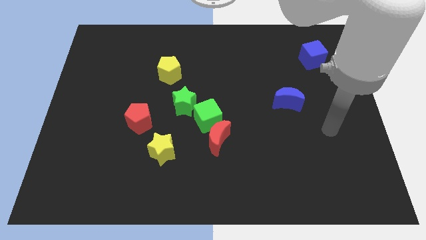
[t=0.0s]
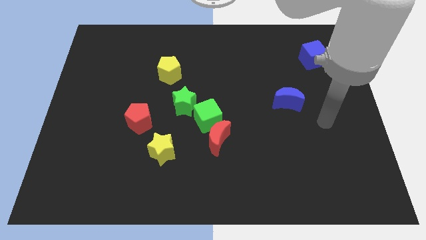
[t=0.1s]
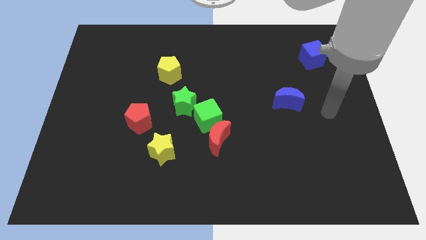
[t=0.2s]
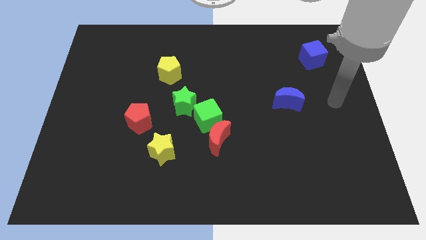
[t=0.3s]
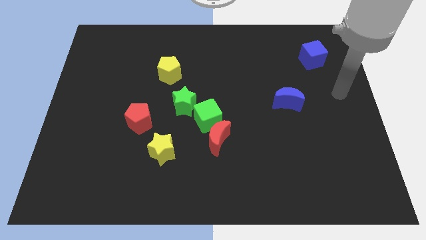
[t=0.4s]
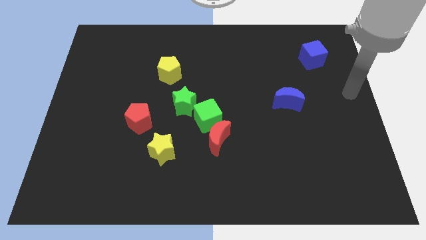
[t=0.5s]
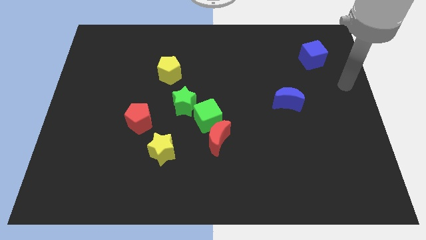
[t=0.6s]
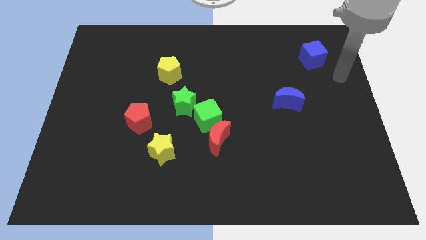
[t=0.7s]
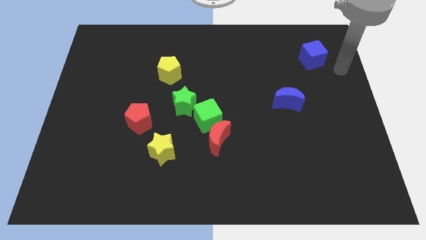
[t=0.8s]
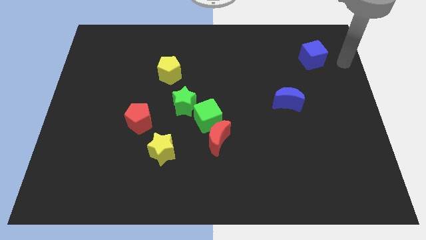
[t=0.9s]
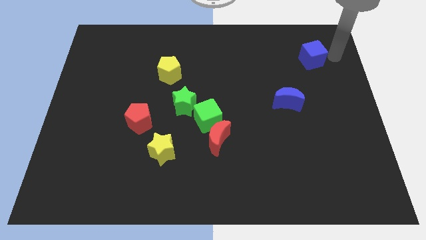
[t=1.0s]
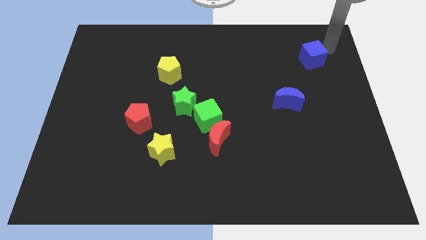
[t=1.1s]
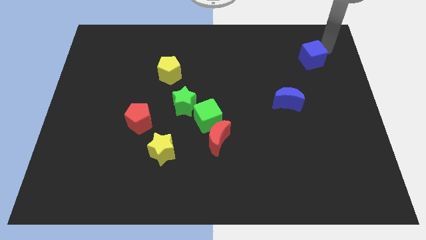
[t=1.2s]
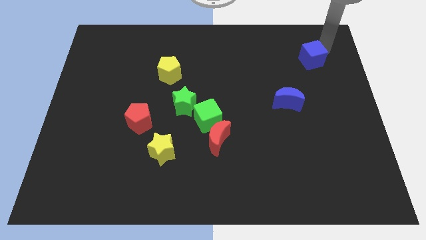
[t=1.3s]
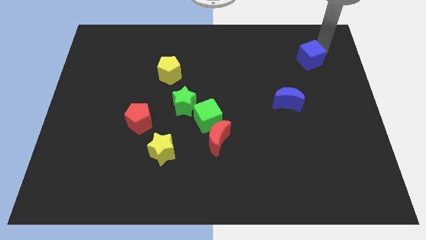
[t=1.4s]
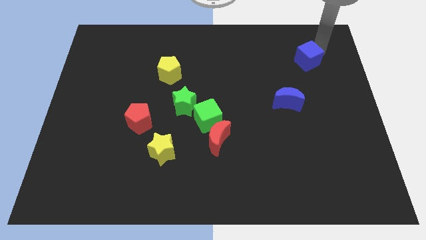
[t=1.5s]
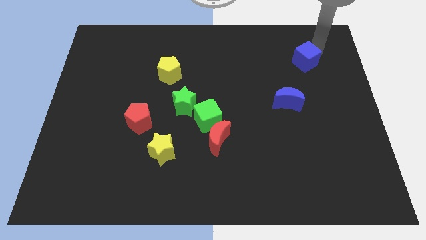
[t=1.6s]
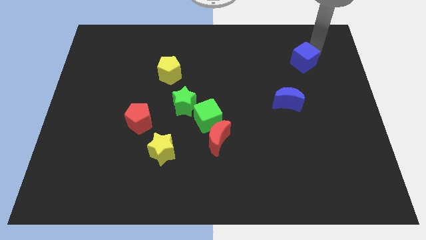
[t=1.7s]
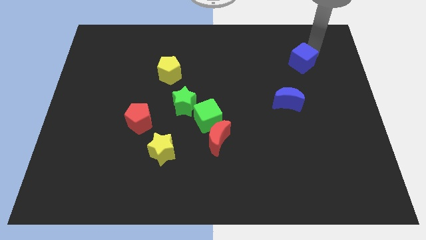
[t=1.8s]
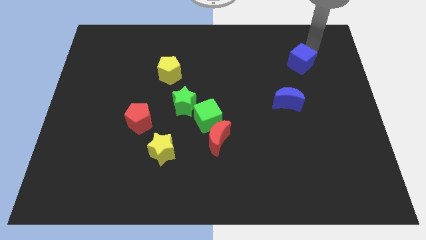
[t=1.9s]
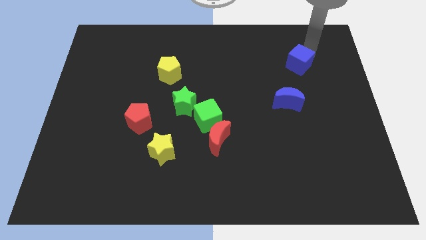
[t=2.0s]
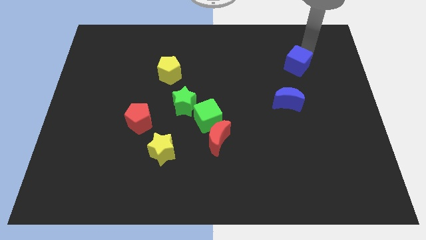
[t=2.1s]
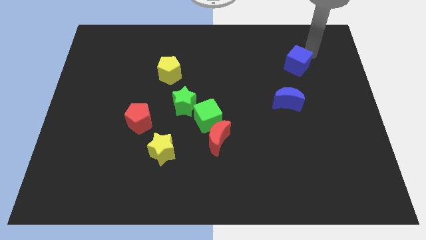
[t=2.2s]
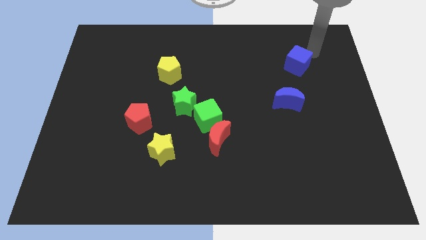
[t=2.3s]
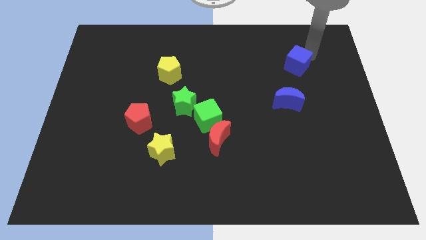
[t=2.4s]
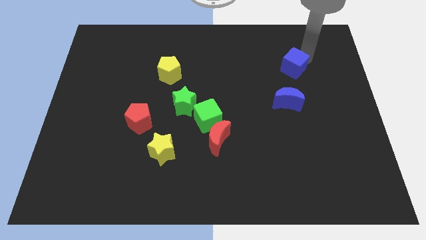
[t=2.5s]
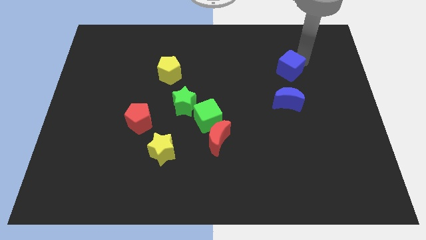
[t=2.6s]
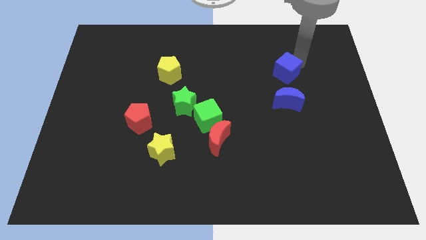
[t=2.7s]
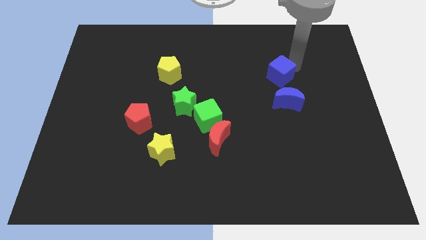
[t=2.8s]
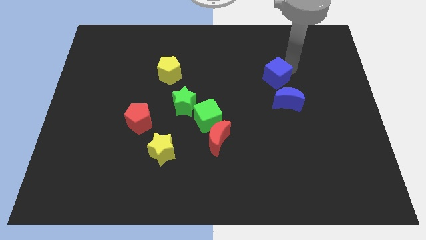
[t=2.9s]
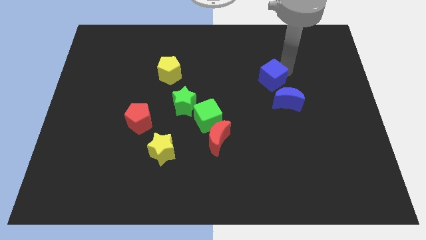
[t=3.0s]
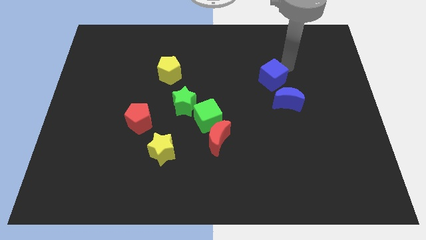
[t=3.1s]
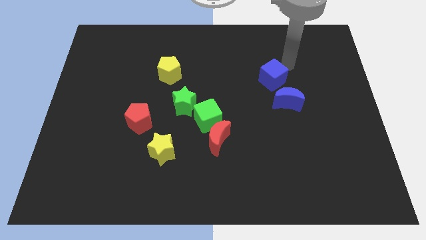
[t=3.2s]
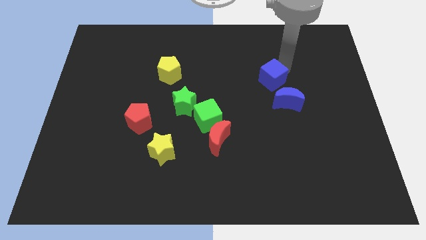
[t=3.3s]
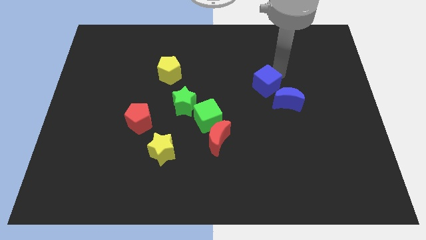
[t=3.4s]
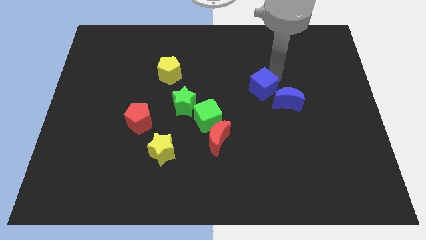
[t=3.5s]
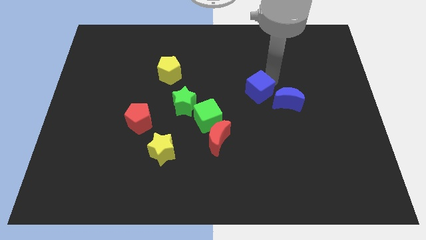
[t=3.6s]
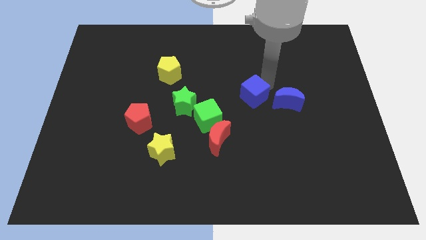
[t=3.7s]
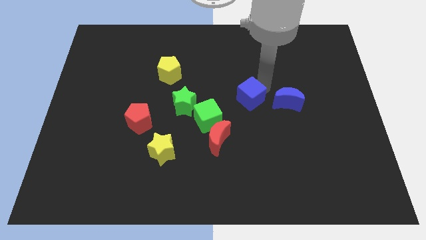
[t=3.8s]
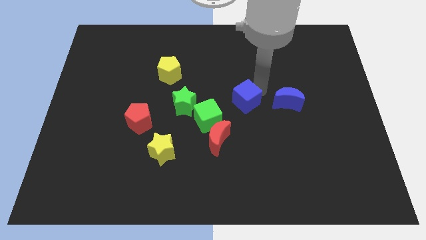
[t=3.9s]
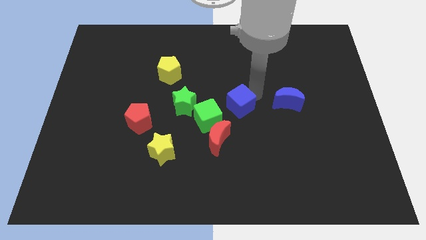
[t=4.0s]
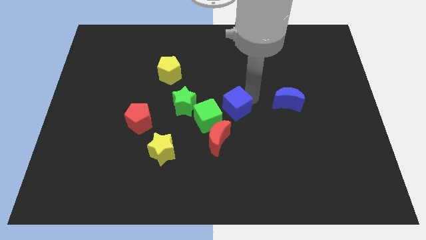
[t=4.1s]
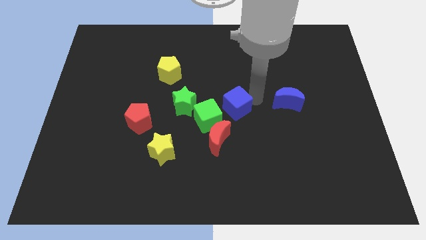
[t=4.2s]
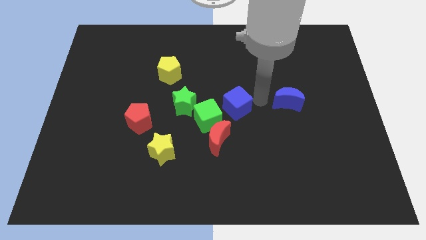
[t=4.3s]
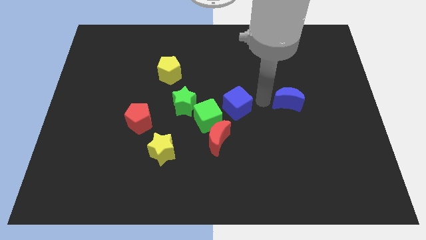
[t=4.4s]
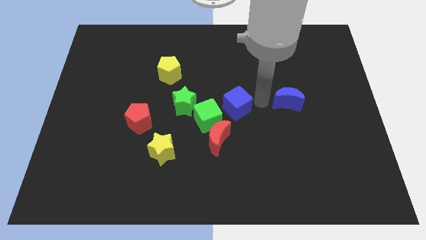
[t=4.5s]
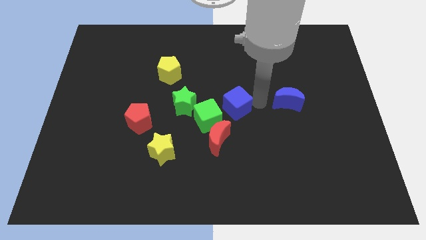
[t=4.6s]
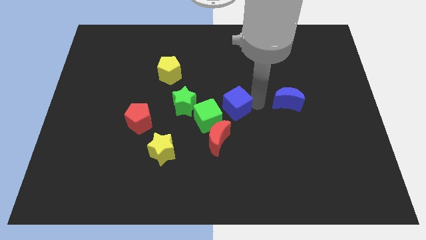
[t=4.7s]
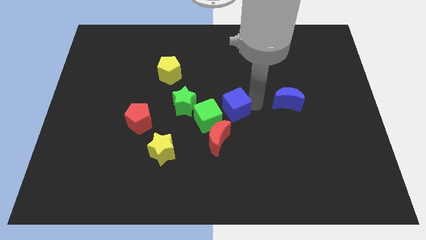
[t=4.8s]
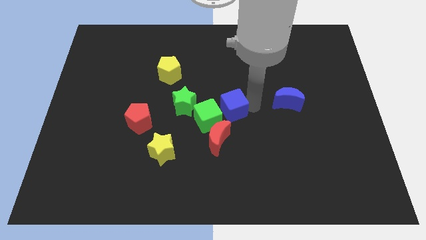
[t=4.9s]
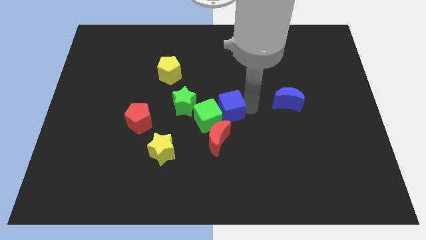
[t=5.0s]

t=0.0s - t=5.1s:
move the blue cube next to the green cube

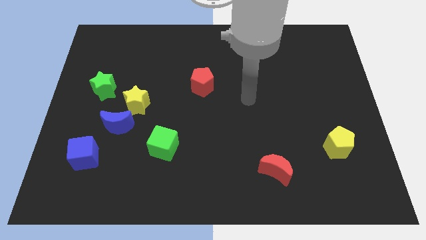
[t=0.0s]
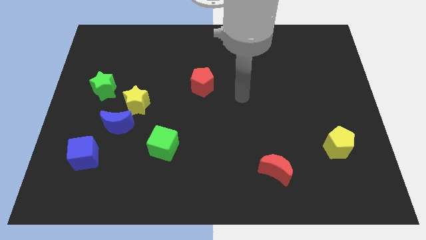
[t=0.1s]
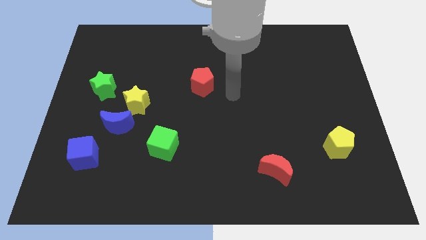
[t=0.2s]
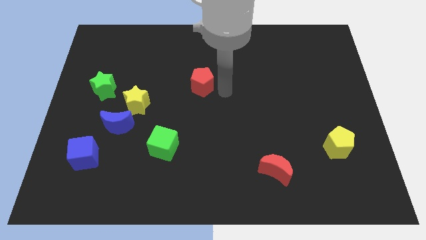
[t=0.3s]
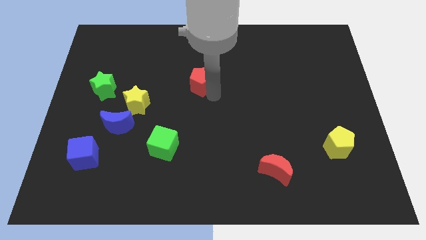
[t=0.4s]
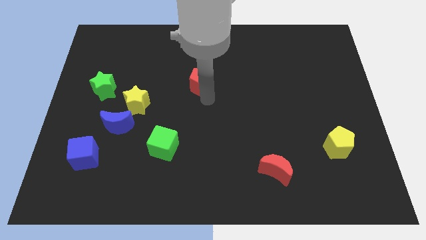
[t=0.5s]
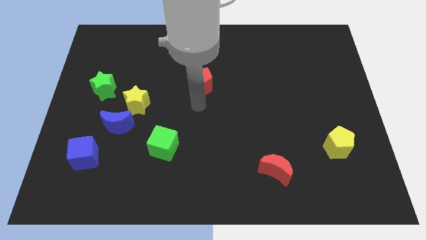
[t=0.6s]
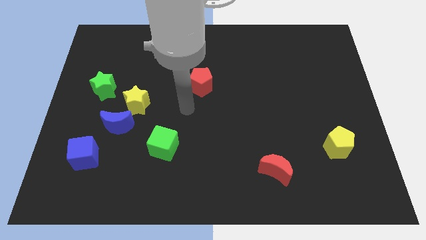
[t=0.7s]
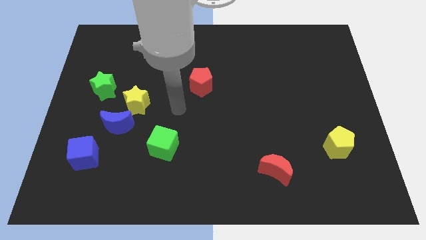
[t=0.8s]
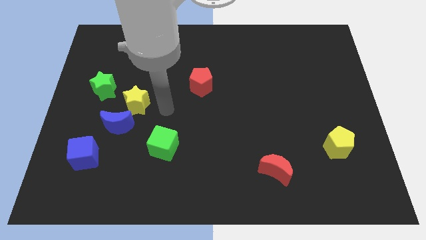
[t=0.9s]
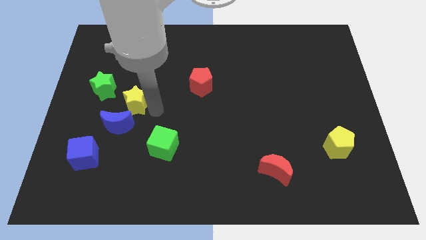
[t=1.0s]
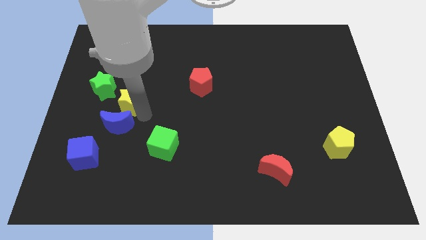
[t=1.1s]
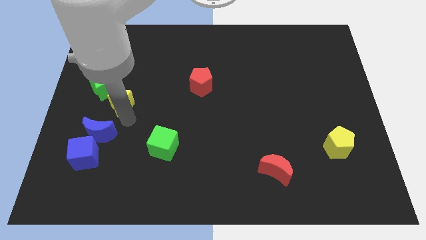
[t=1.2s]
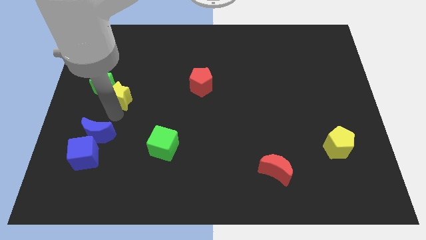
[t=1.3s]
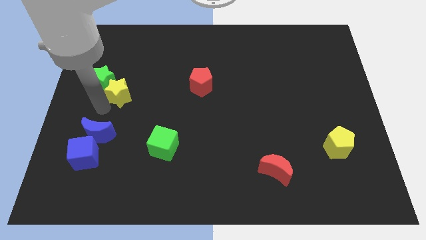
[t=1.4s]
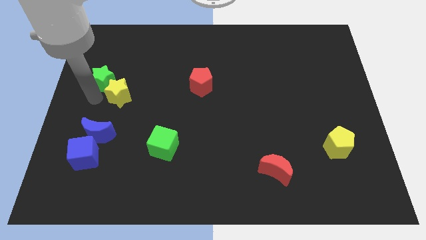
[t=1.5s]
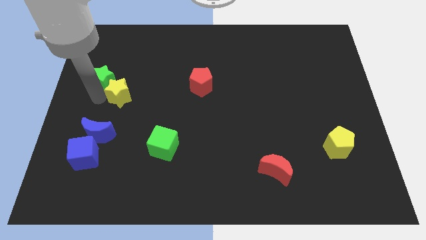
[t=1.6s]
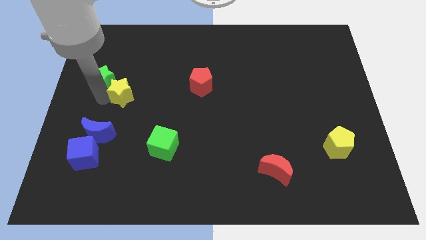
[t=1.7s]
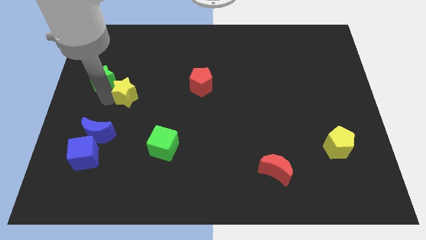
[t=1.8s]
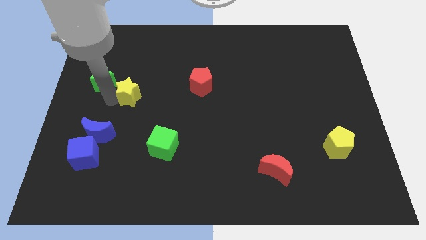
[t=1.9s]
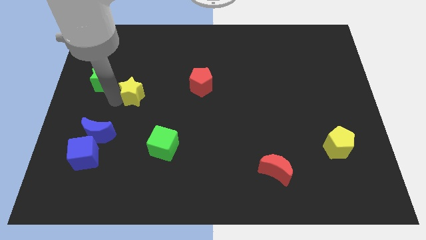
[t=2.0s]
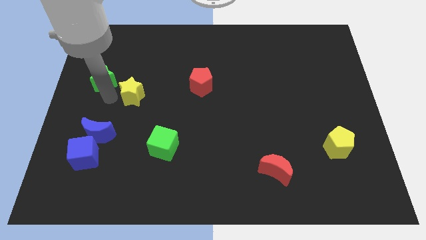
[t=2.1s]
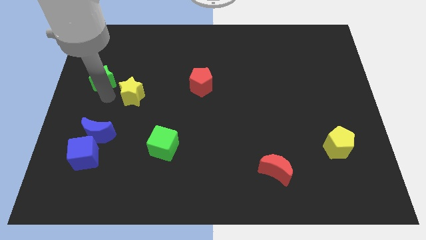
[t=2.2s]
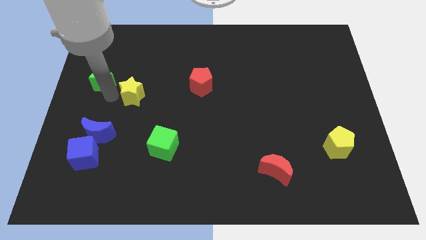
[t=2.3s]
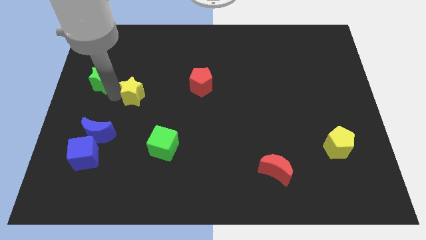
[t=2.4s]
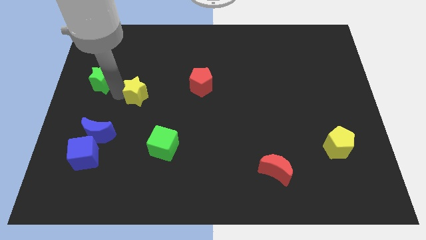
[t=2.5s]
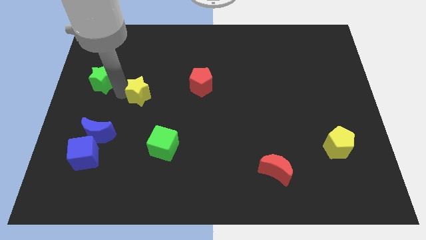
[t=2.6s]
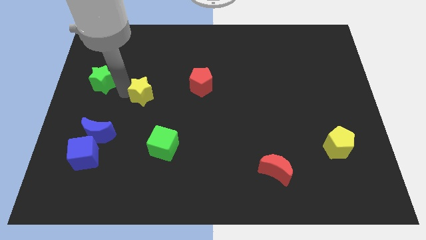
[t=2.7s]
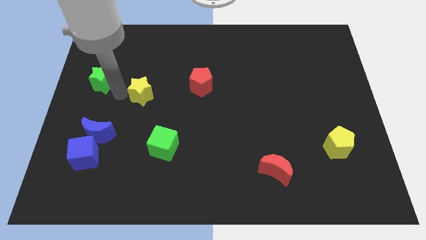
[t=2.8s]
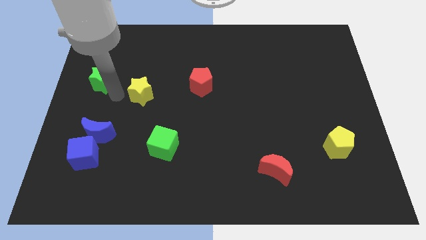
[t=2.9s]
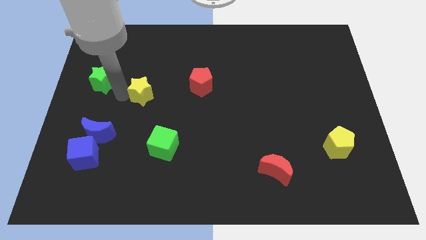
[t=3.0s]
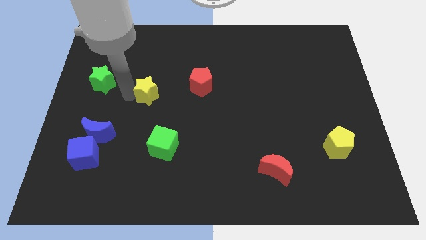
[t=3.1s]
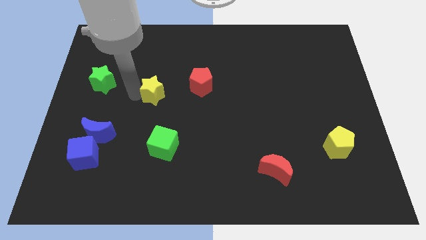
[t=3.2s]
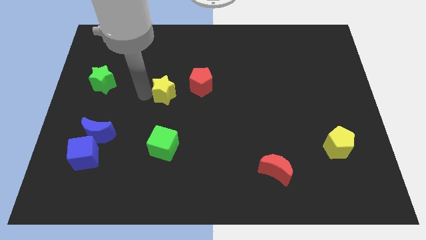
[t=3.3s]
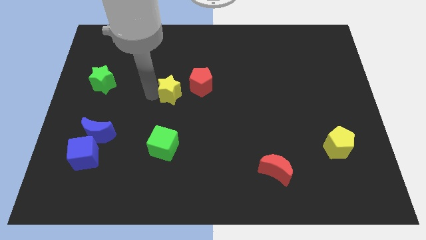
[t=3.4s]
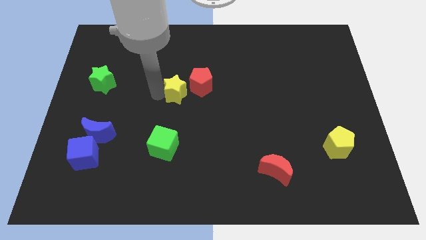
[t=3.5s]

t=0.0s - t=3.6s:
move the yellow star to the red pentagon
